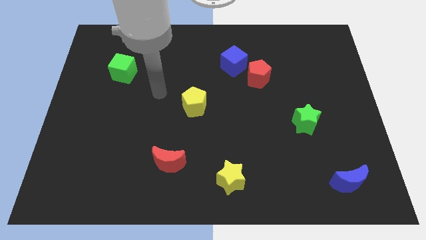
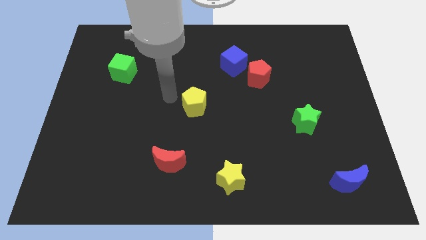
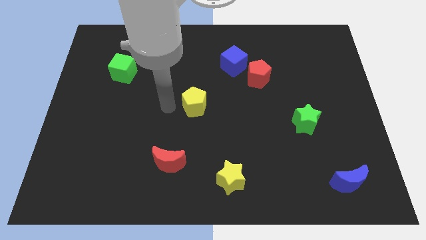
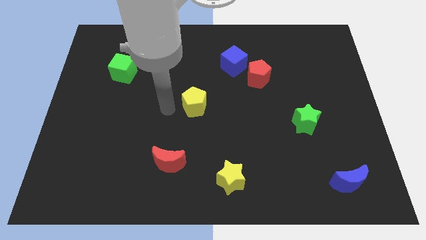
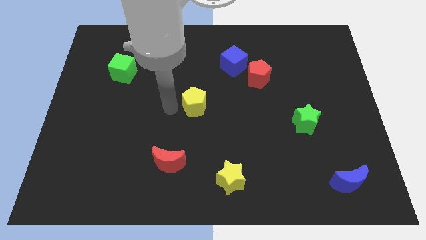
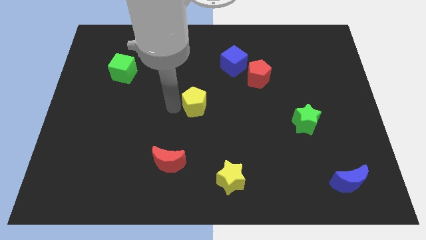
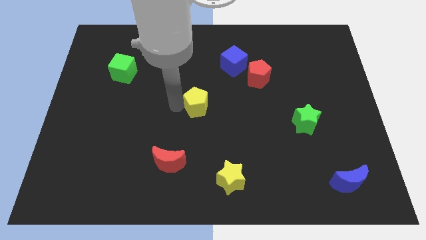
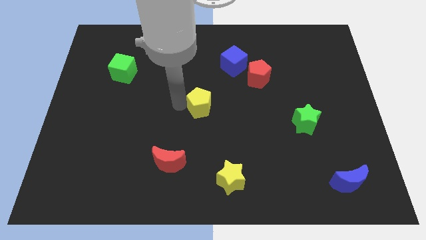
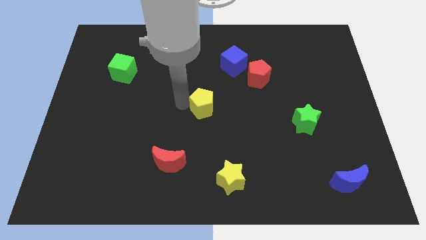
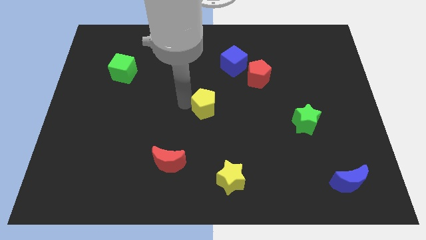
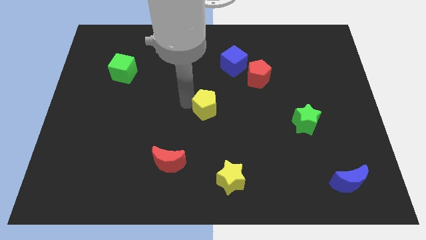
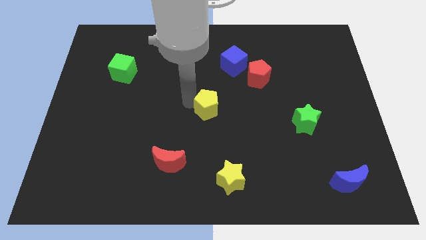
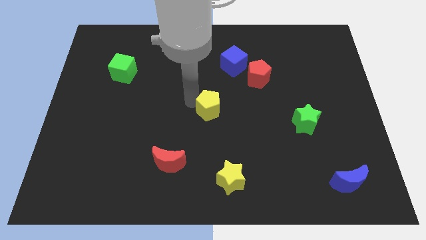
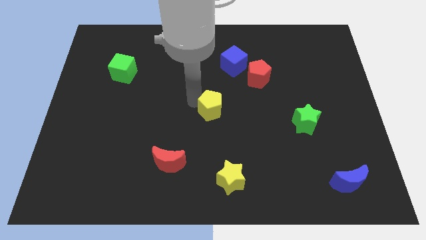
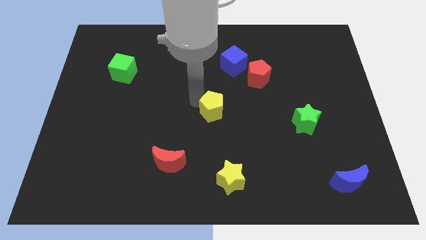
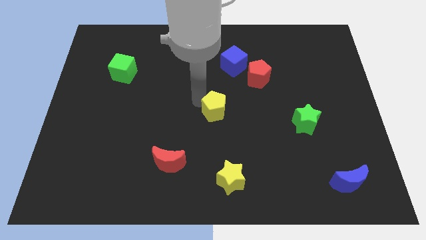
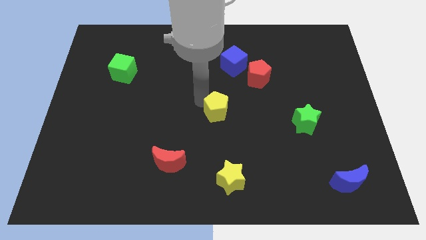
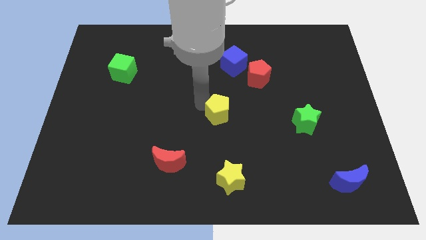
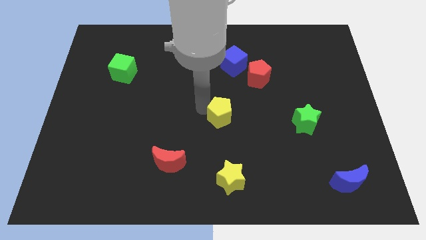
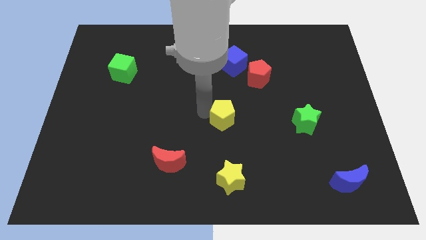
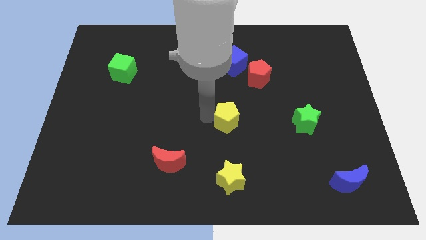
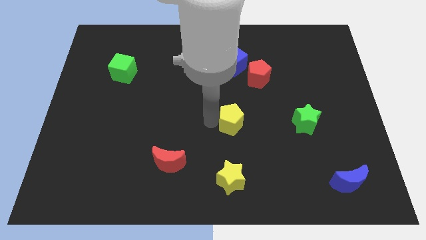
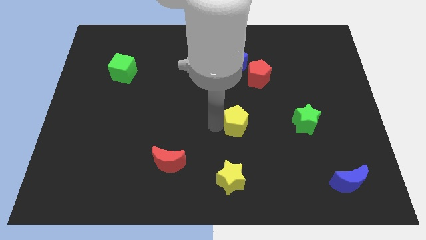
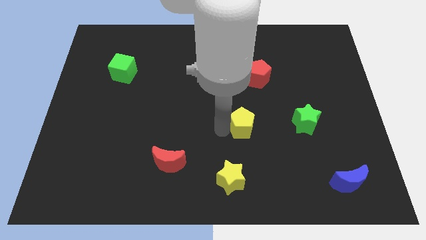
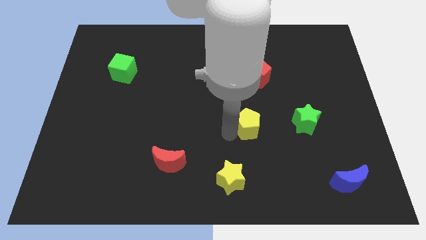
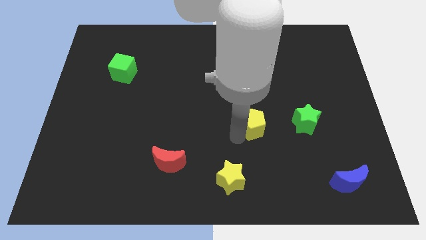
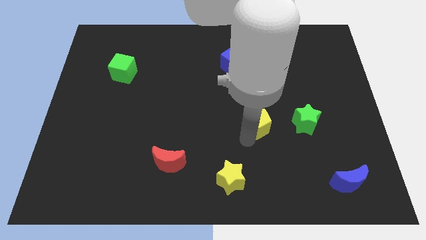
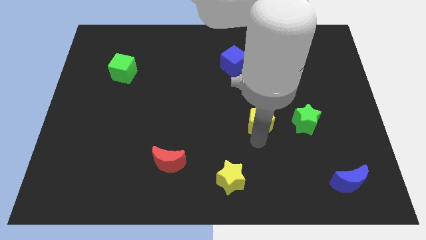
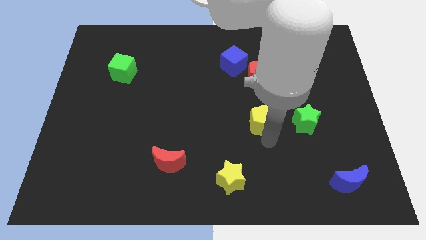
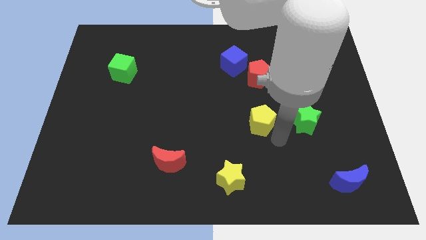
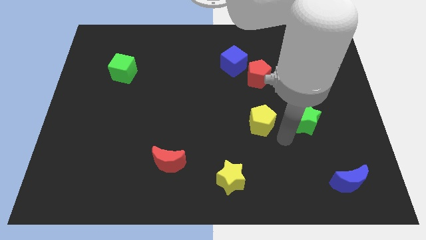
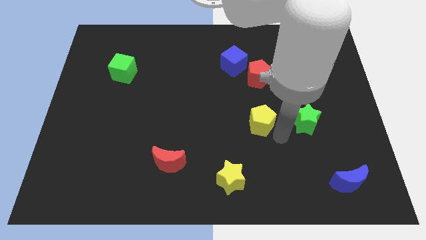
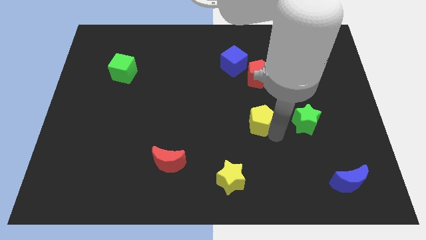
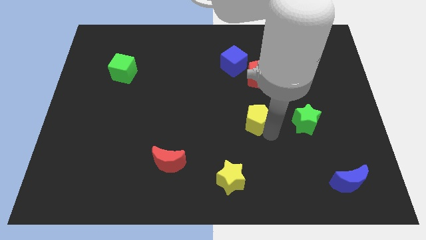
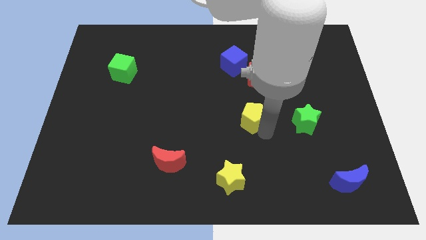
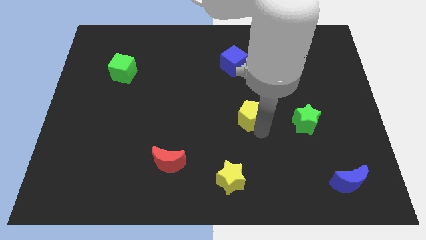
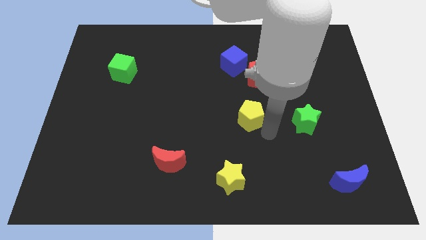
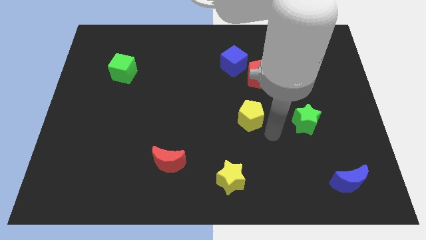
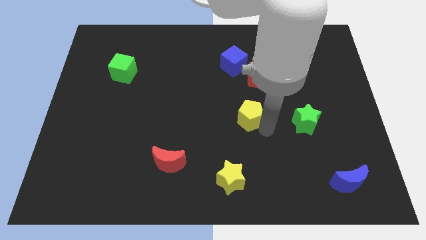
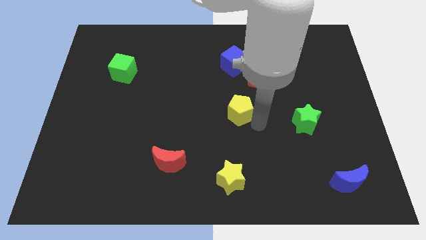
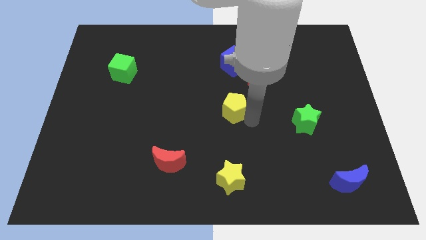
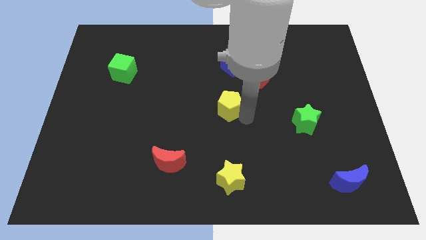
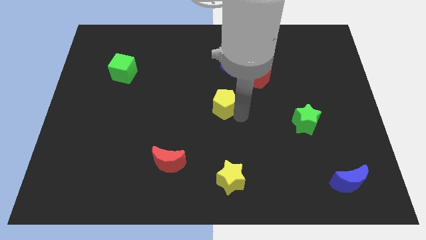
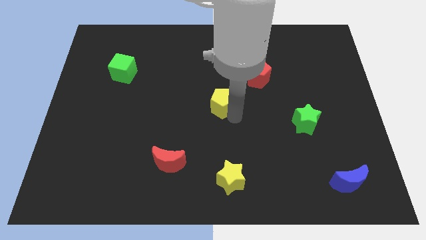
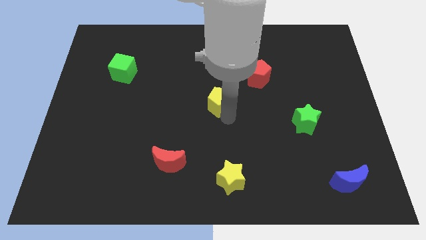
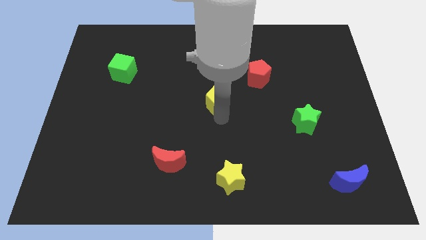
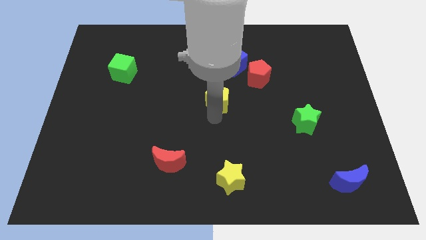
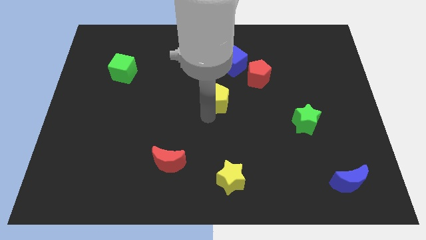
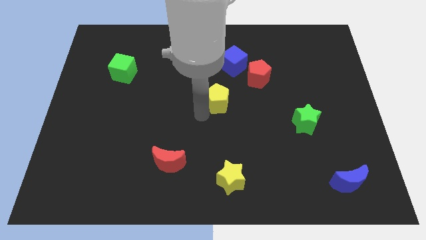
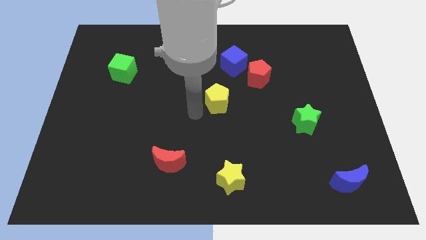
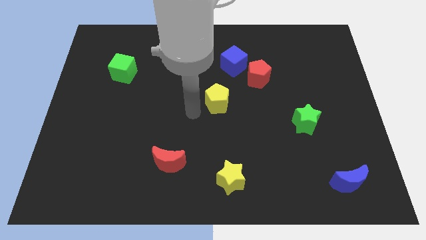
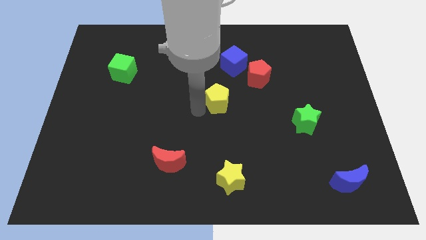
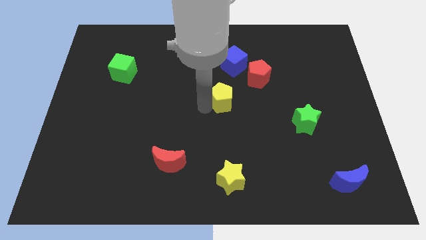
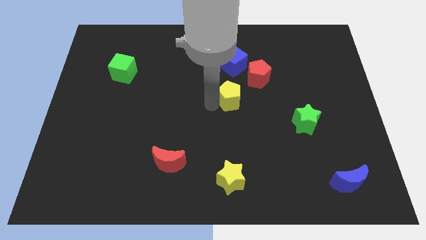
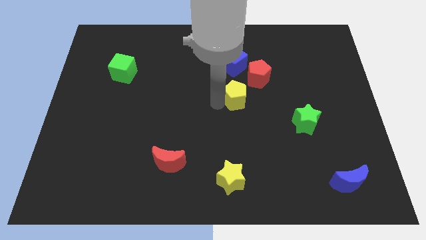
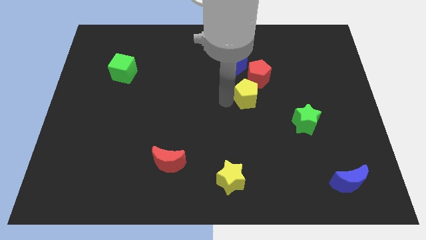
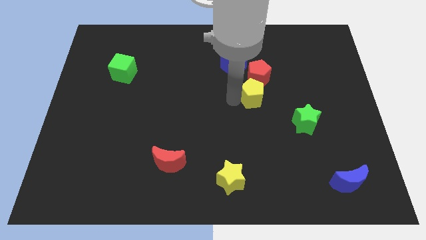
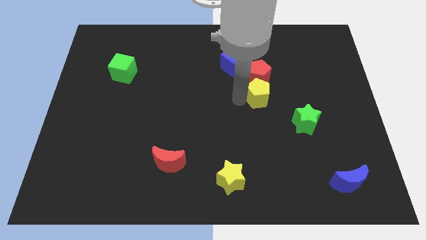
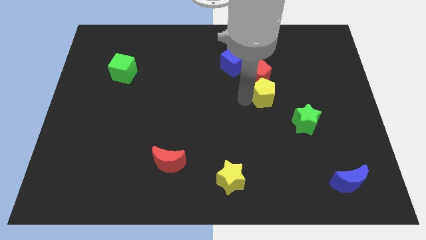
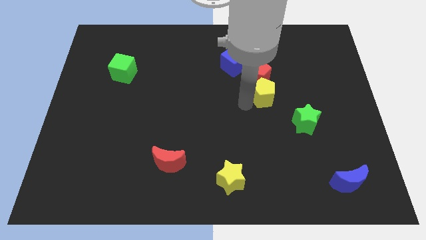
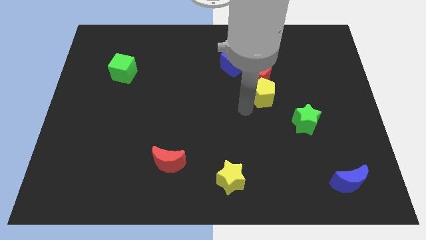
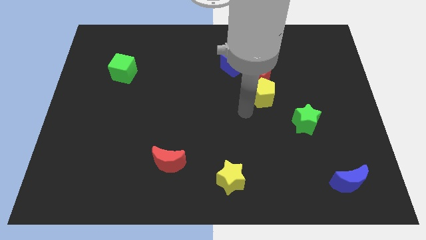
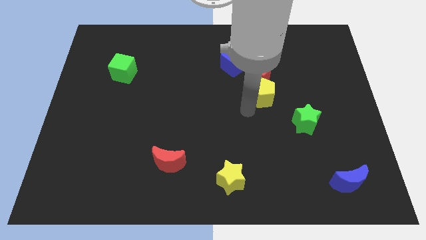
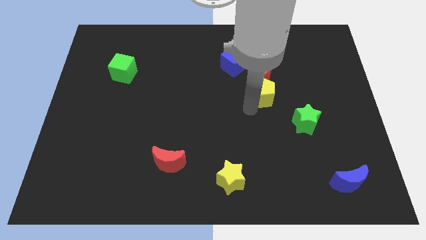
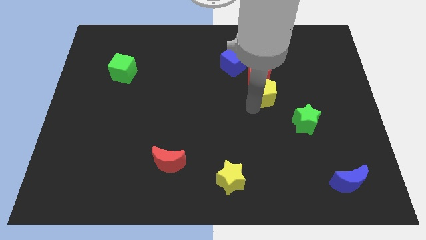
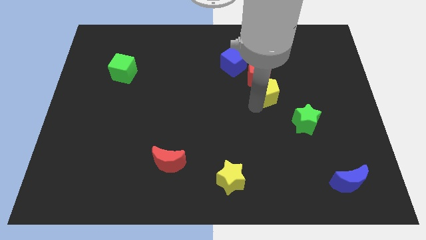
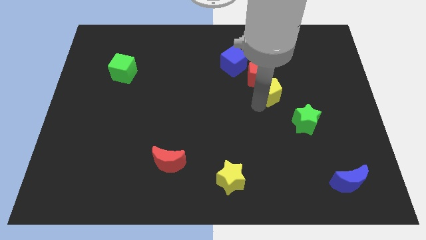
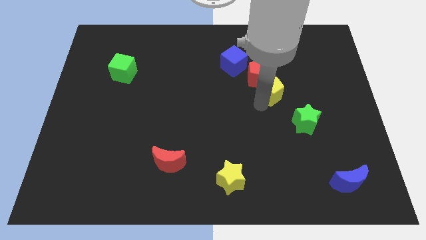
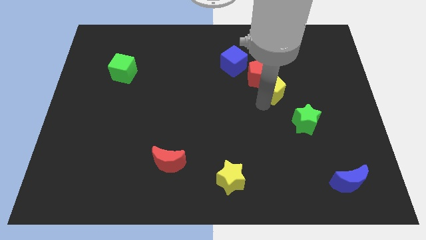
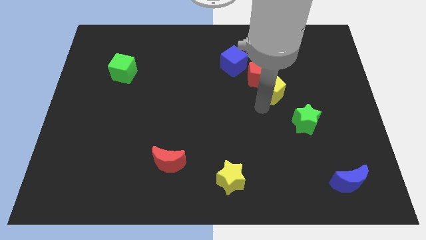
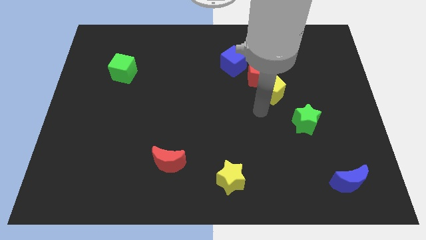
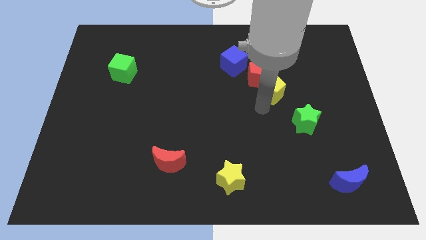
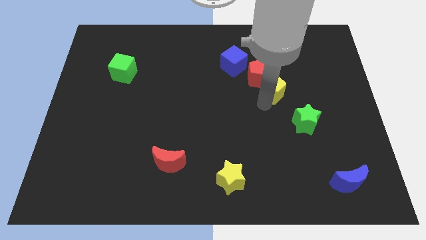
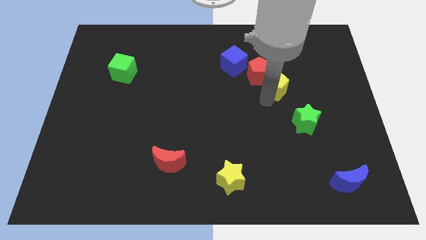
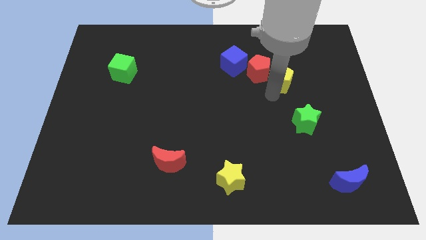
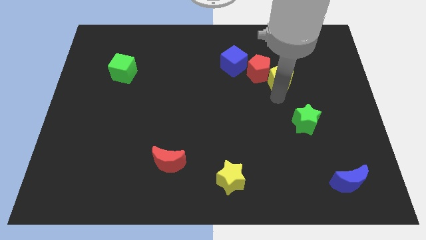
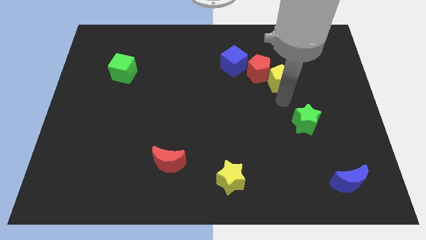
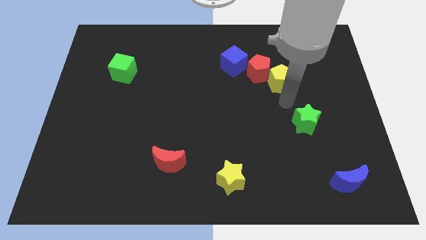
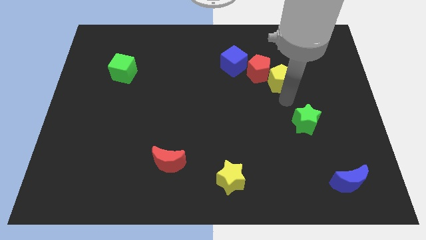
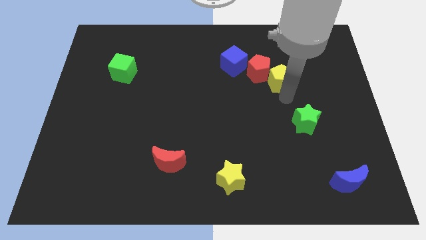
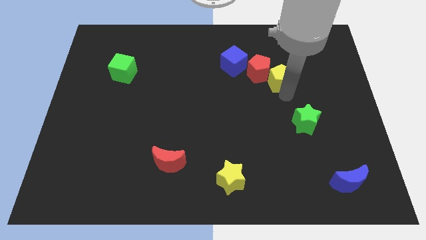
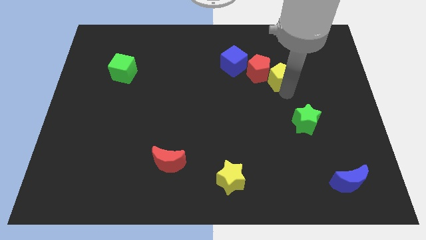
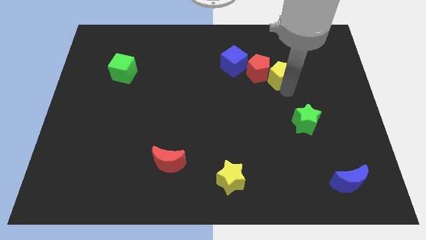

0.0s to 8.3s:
slide the yellow pentagon just right of the blue cube
